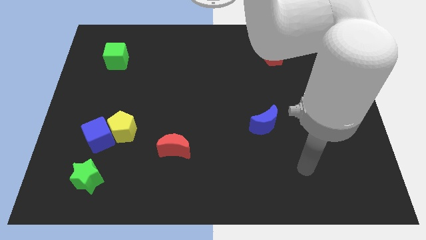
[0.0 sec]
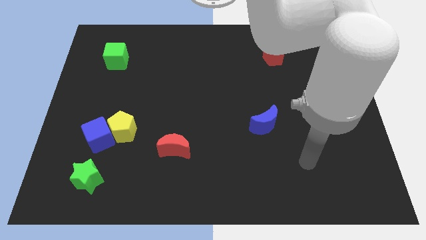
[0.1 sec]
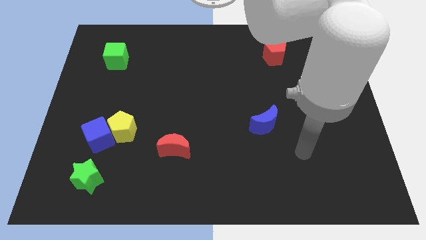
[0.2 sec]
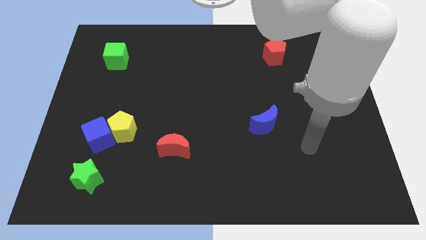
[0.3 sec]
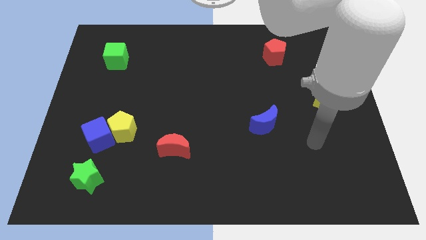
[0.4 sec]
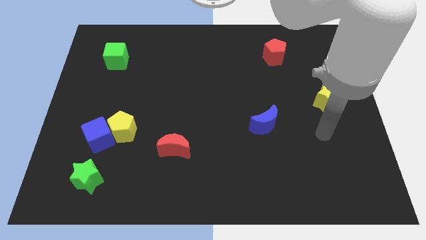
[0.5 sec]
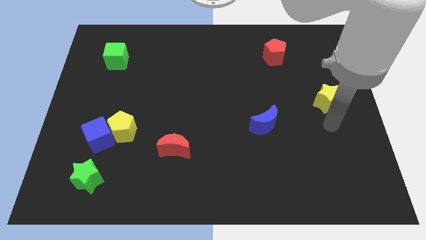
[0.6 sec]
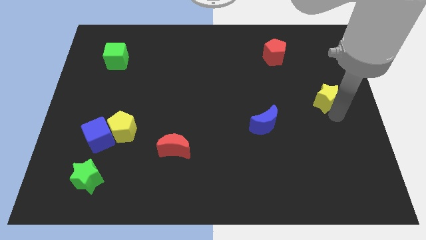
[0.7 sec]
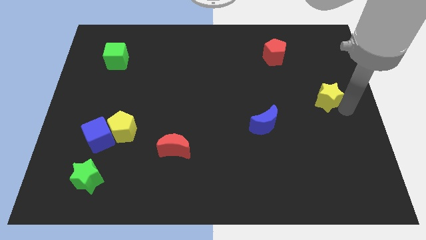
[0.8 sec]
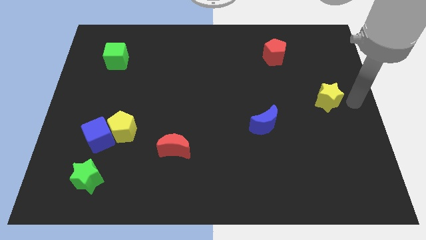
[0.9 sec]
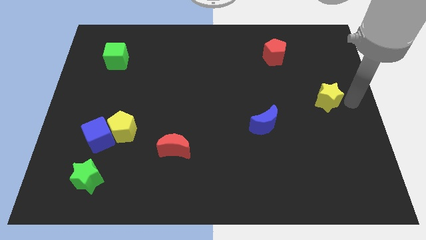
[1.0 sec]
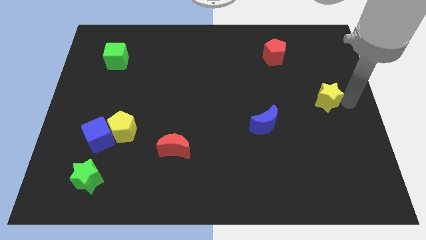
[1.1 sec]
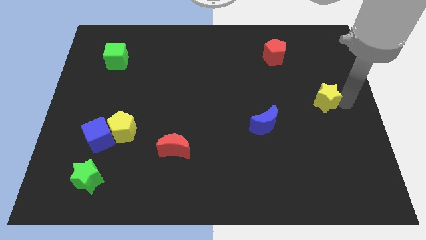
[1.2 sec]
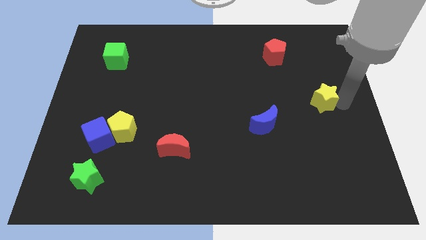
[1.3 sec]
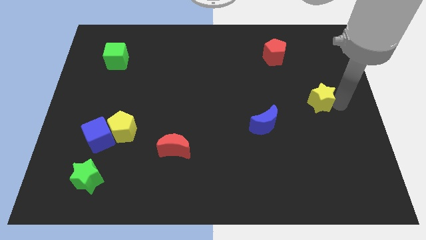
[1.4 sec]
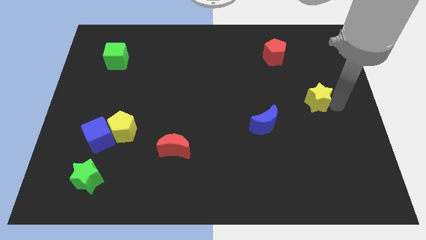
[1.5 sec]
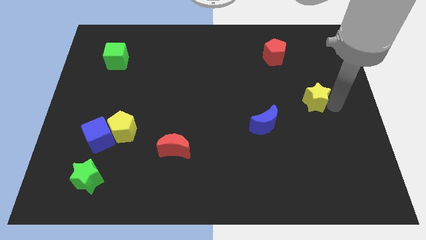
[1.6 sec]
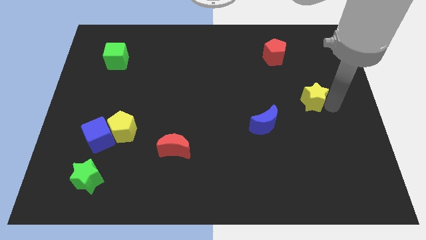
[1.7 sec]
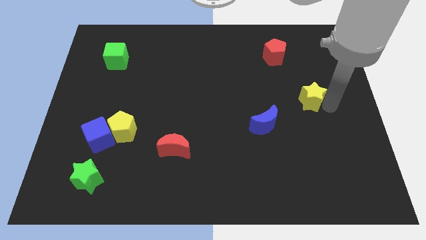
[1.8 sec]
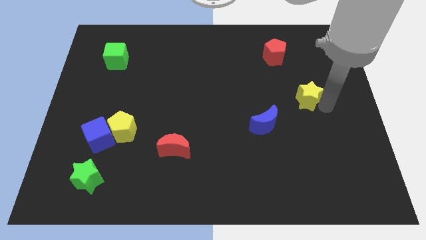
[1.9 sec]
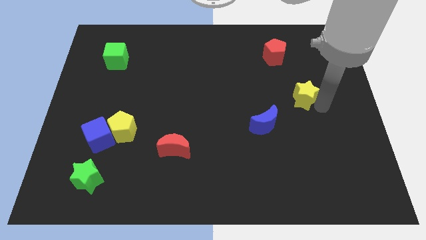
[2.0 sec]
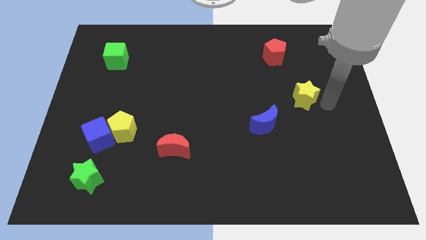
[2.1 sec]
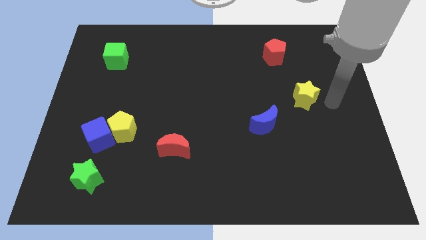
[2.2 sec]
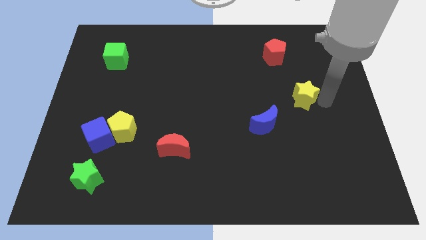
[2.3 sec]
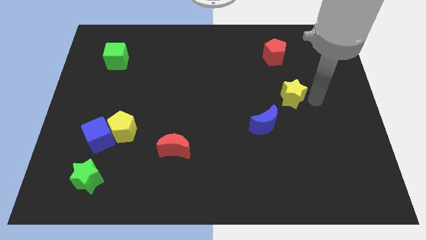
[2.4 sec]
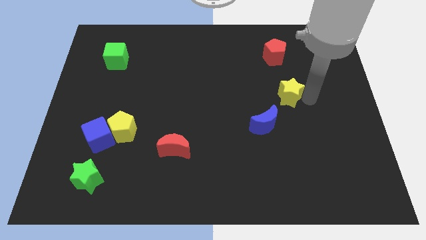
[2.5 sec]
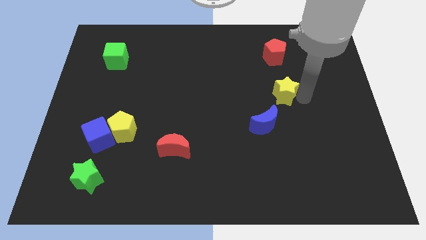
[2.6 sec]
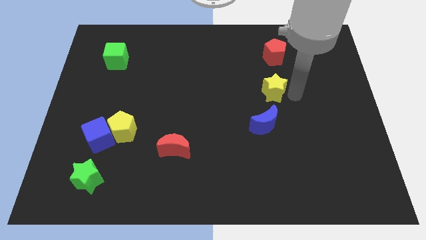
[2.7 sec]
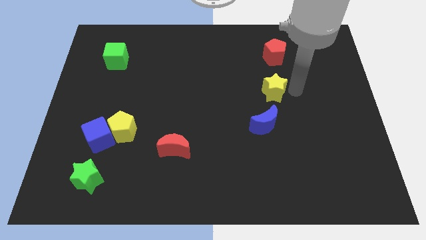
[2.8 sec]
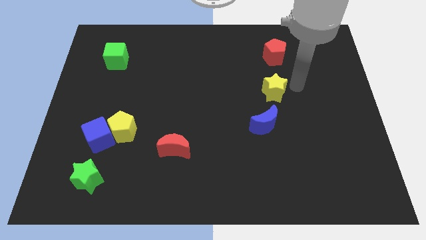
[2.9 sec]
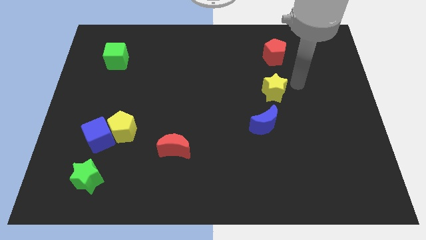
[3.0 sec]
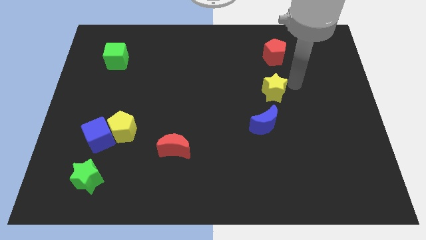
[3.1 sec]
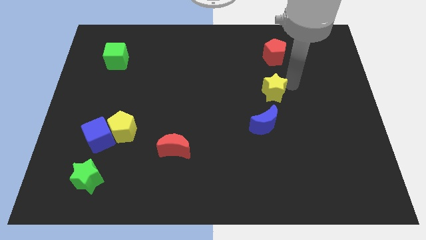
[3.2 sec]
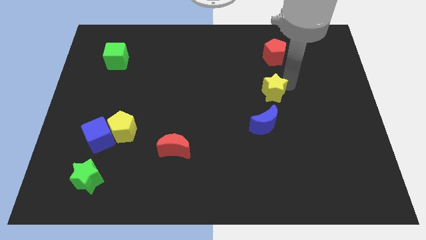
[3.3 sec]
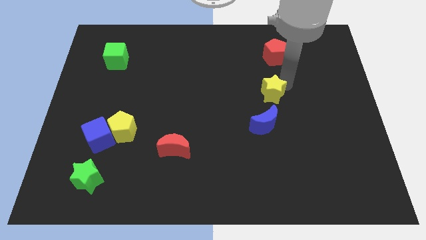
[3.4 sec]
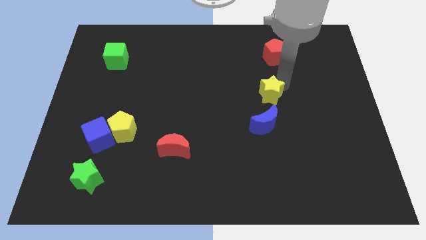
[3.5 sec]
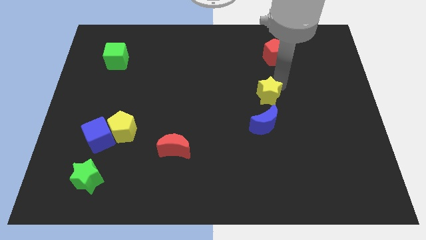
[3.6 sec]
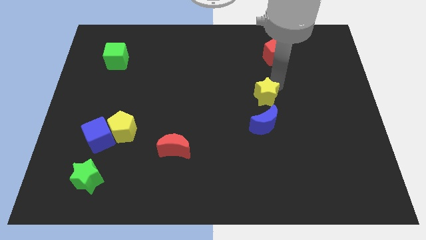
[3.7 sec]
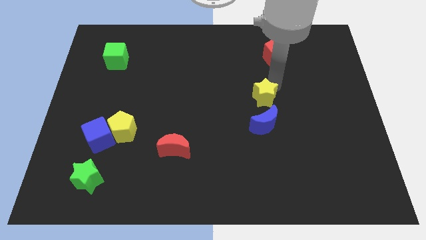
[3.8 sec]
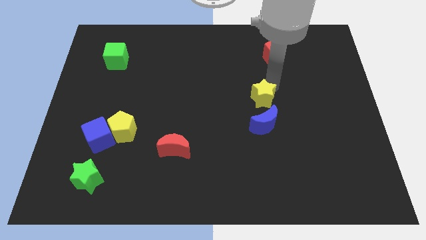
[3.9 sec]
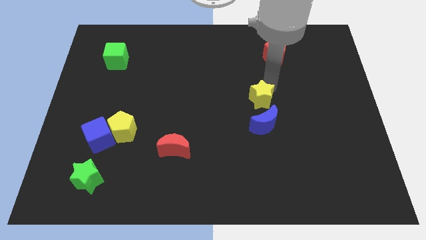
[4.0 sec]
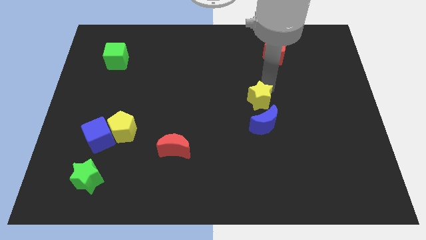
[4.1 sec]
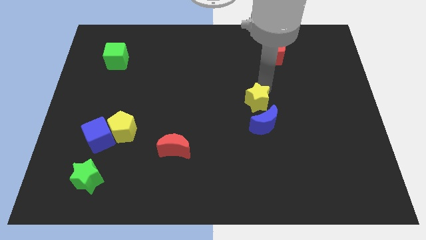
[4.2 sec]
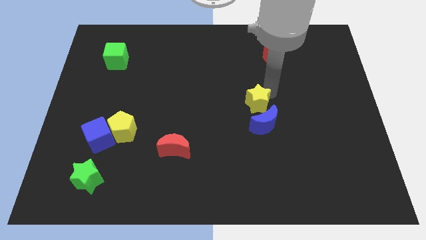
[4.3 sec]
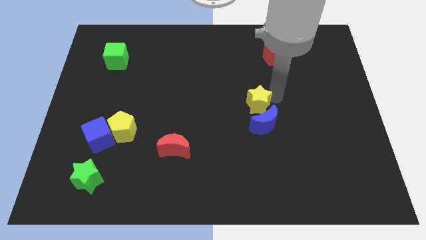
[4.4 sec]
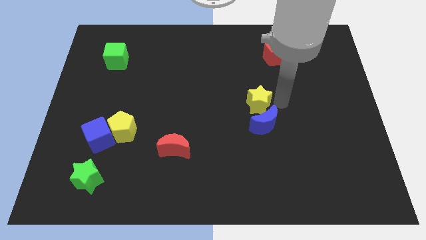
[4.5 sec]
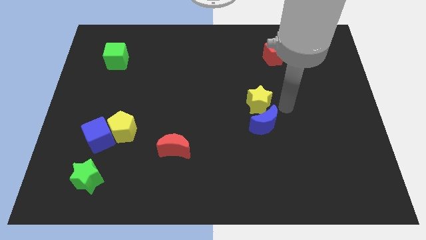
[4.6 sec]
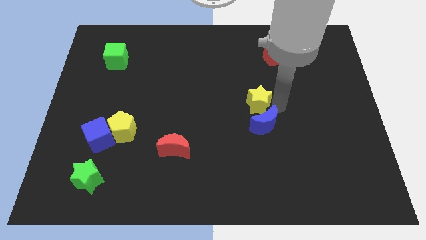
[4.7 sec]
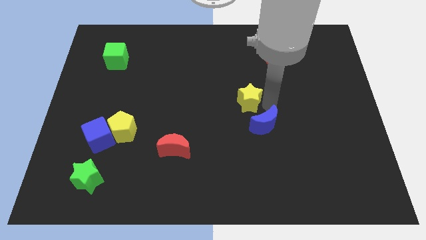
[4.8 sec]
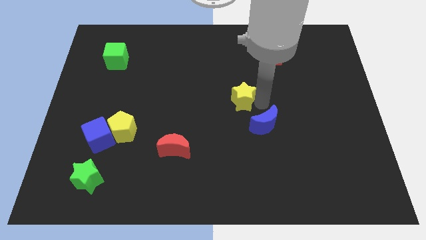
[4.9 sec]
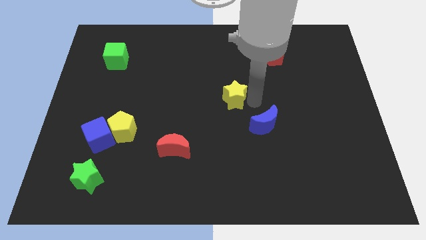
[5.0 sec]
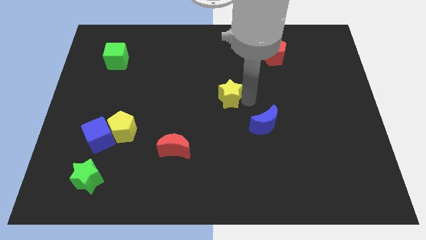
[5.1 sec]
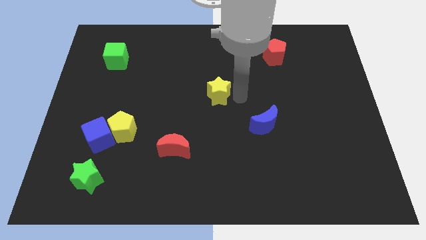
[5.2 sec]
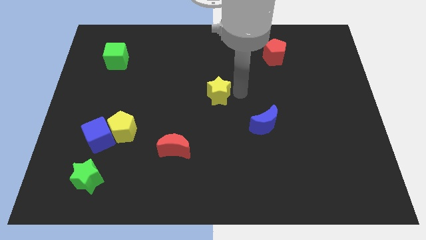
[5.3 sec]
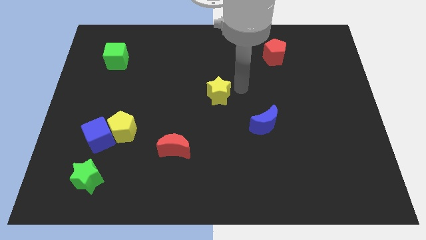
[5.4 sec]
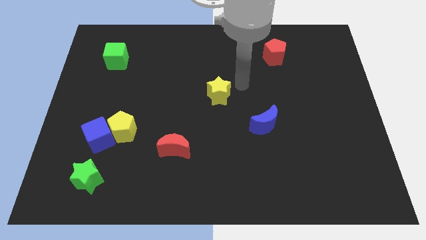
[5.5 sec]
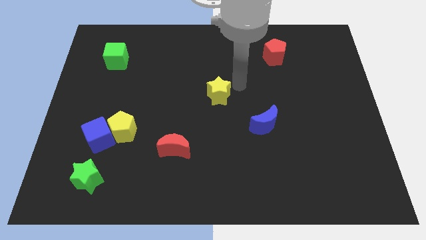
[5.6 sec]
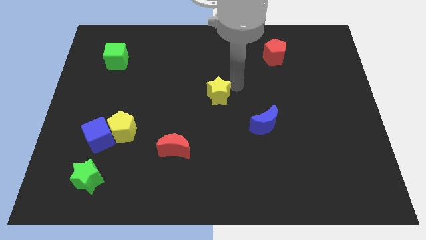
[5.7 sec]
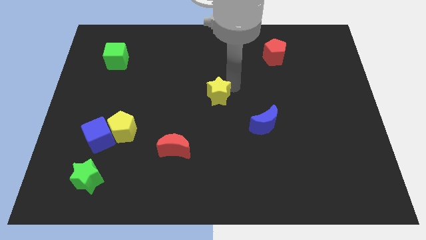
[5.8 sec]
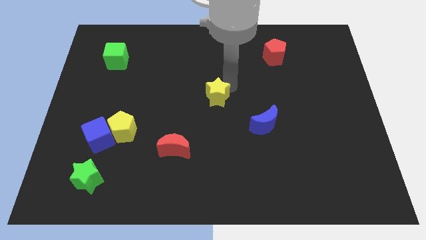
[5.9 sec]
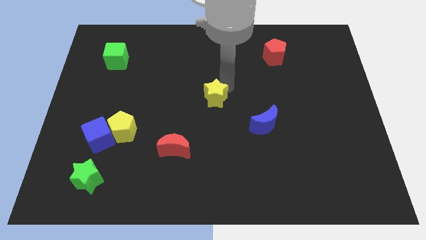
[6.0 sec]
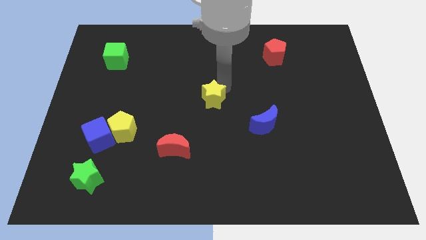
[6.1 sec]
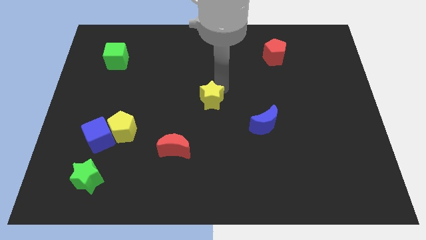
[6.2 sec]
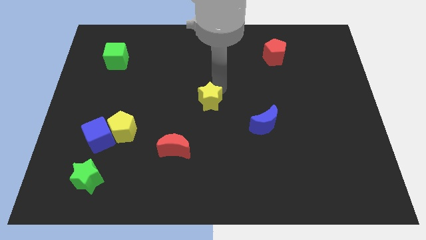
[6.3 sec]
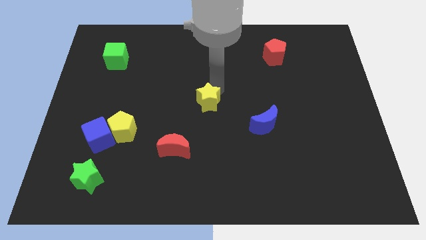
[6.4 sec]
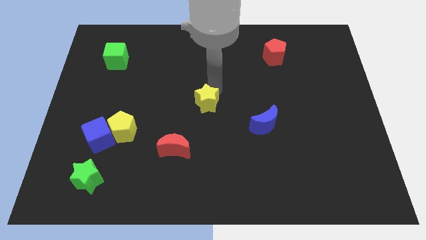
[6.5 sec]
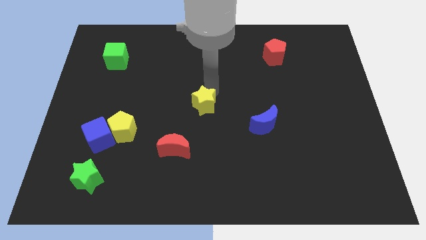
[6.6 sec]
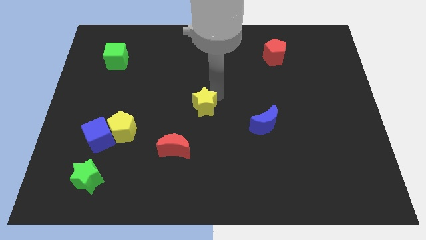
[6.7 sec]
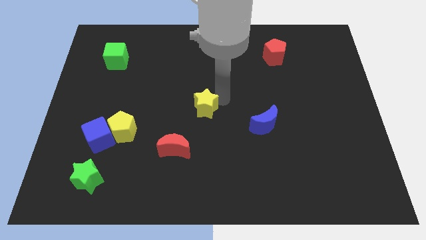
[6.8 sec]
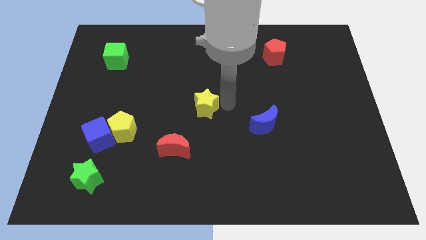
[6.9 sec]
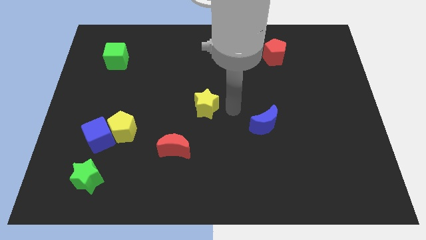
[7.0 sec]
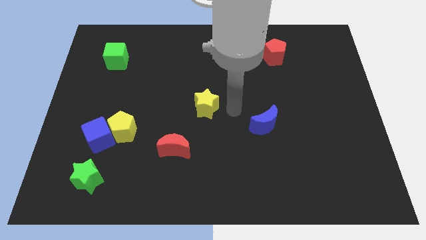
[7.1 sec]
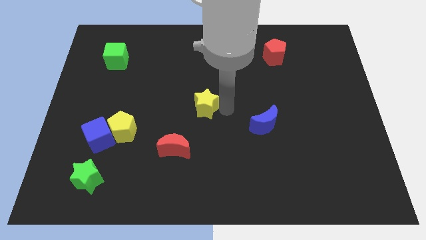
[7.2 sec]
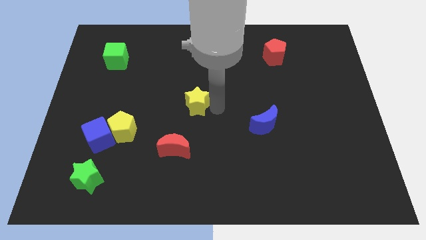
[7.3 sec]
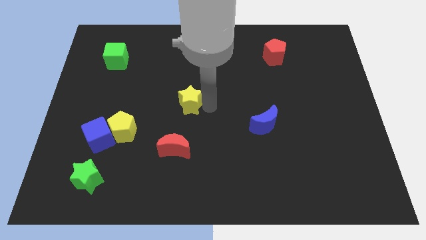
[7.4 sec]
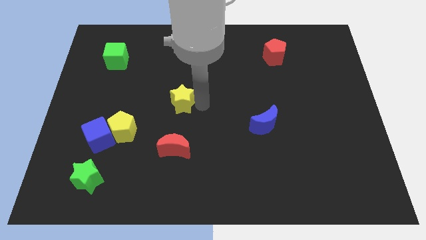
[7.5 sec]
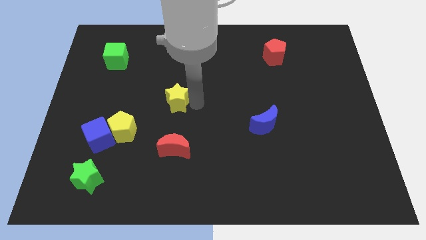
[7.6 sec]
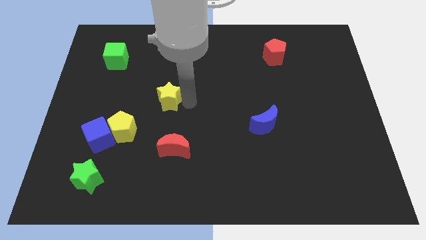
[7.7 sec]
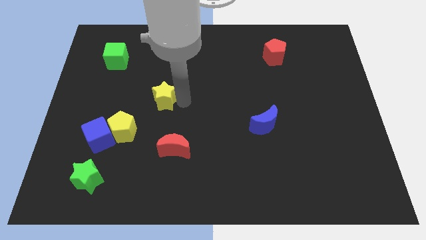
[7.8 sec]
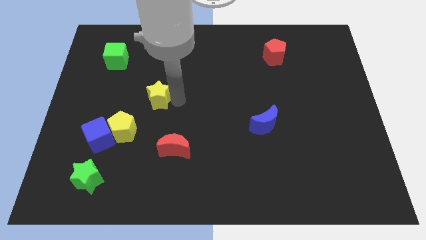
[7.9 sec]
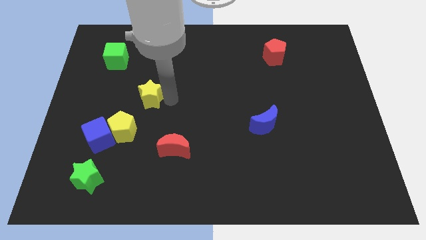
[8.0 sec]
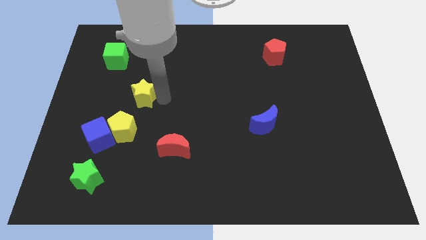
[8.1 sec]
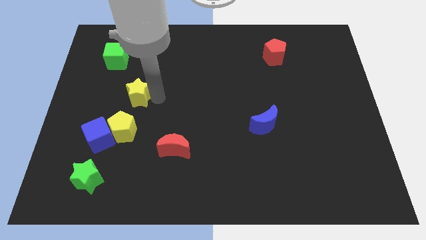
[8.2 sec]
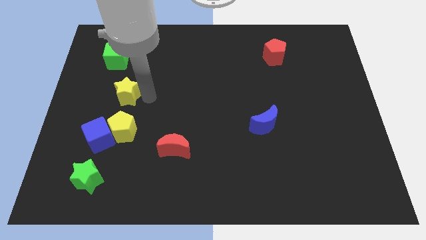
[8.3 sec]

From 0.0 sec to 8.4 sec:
slide the yellow star to the bottom side of the green cube
